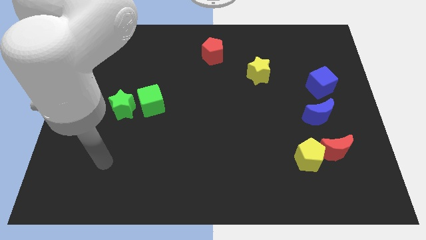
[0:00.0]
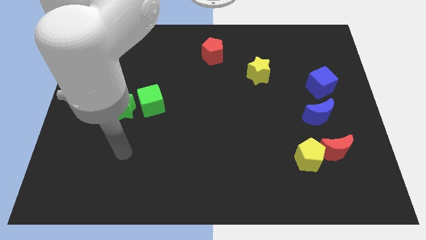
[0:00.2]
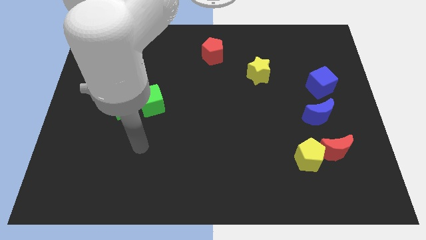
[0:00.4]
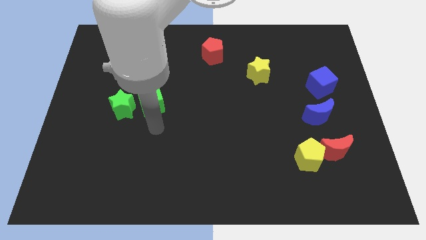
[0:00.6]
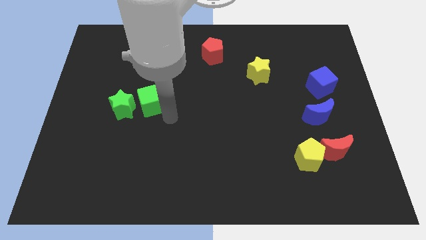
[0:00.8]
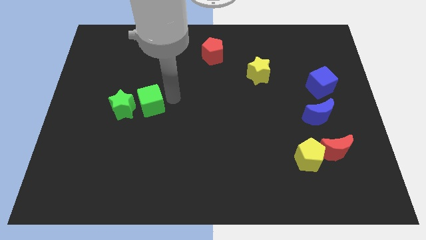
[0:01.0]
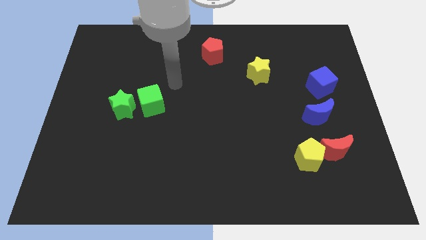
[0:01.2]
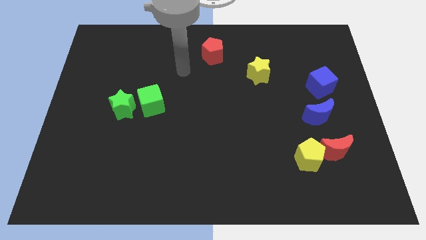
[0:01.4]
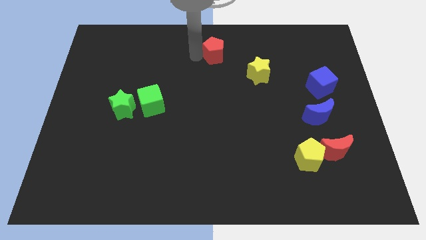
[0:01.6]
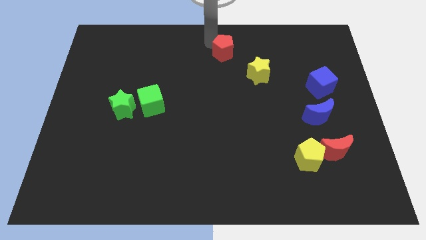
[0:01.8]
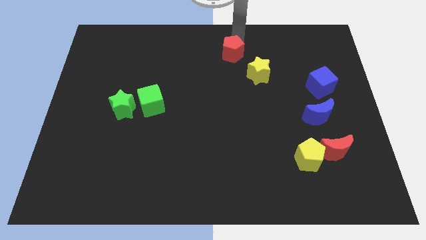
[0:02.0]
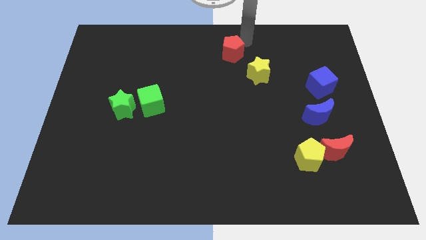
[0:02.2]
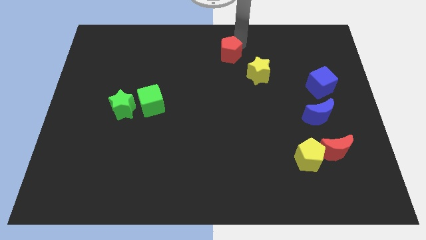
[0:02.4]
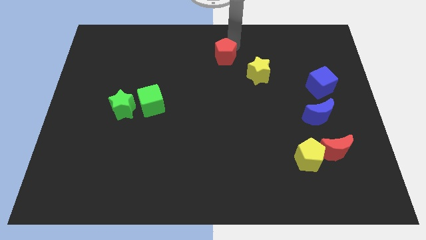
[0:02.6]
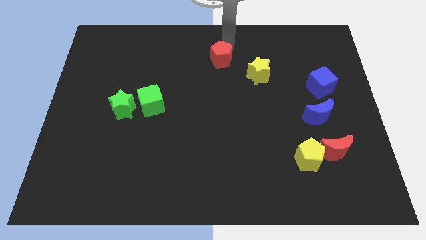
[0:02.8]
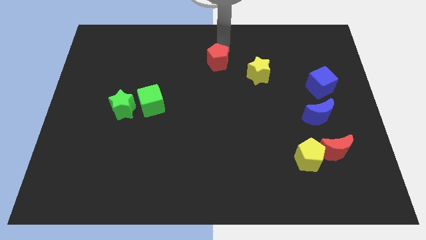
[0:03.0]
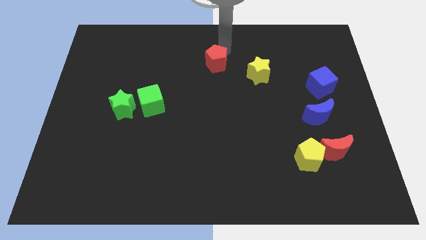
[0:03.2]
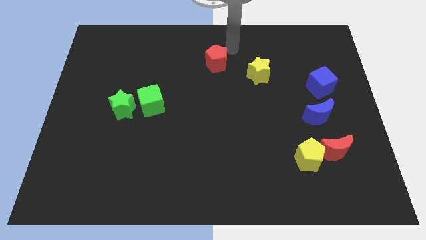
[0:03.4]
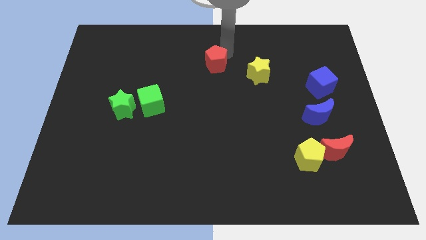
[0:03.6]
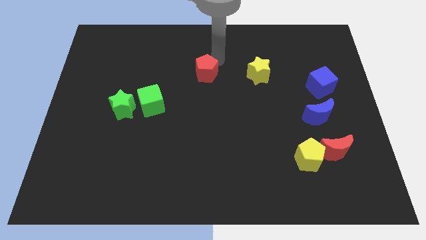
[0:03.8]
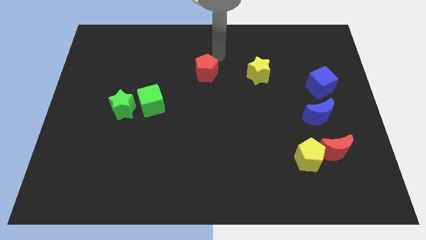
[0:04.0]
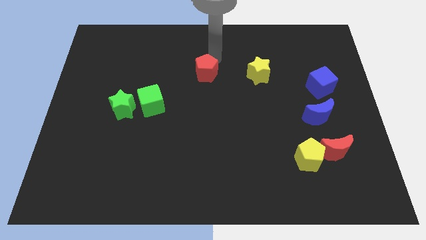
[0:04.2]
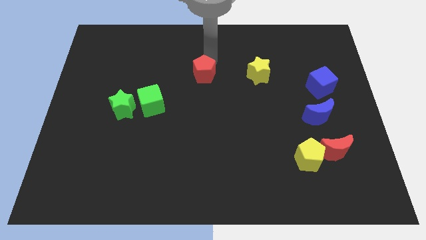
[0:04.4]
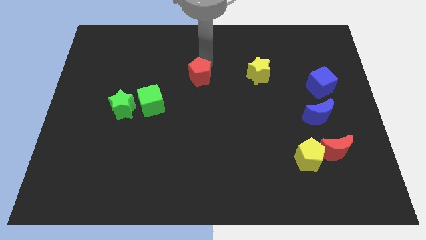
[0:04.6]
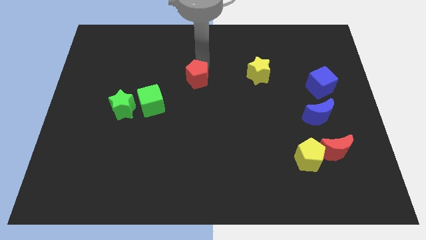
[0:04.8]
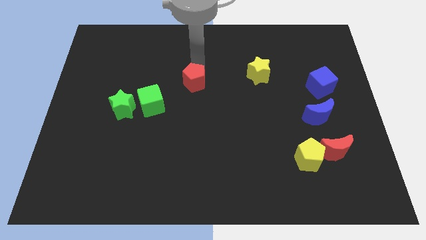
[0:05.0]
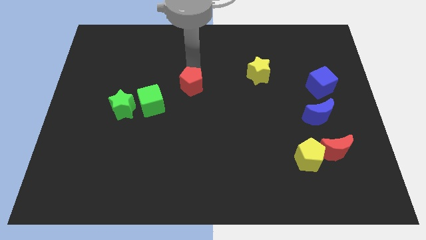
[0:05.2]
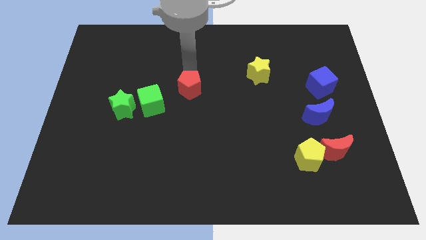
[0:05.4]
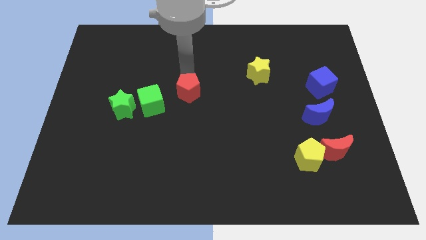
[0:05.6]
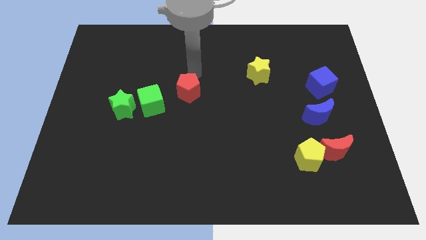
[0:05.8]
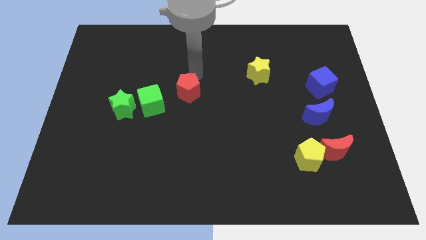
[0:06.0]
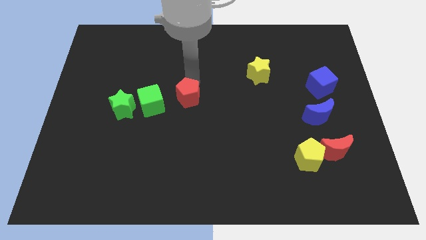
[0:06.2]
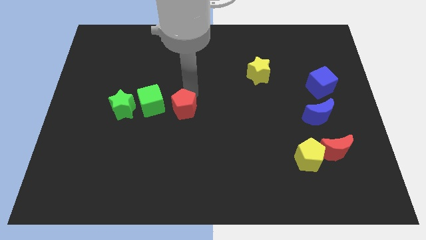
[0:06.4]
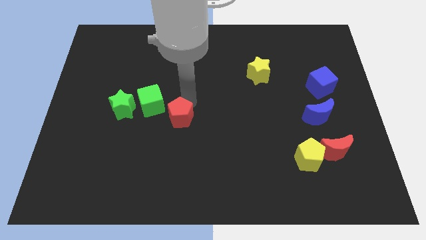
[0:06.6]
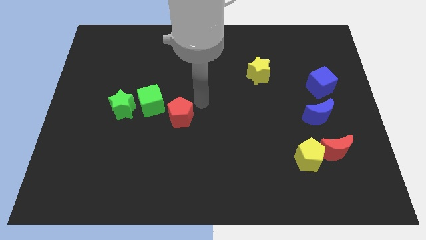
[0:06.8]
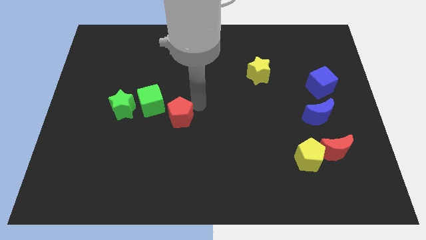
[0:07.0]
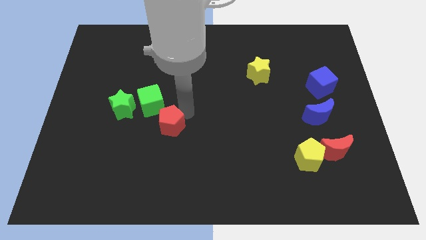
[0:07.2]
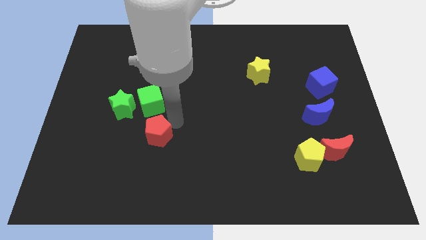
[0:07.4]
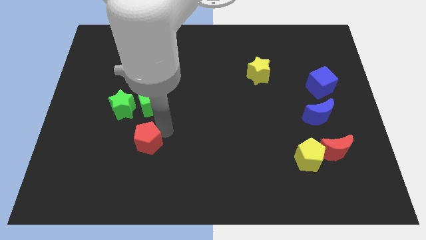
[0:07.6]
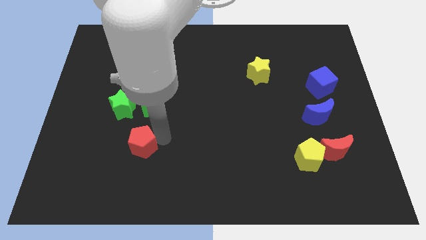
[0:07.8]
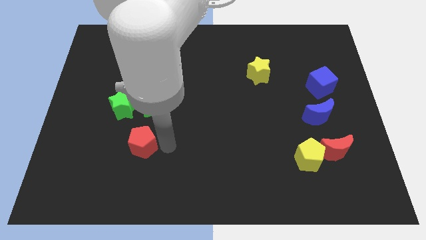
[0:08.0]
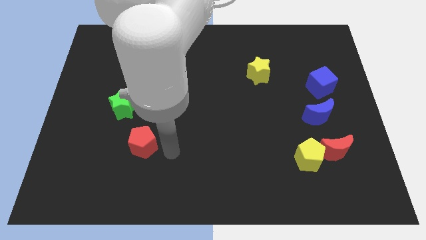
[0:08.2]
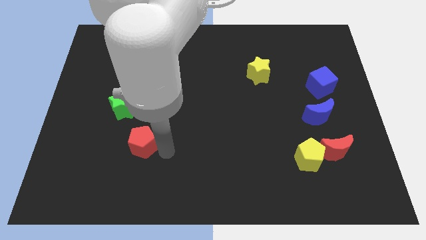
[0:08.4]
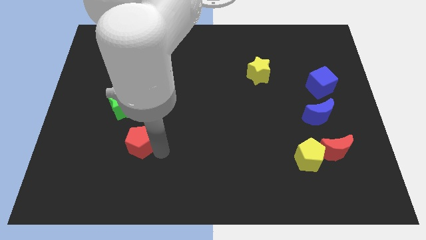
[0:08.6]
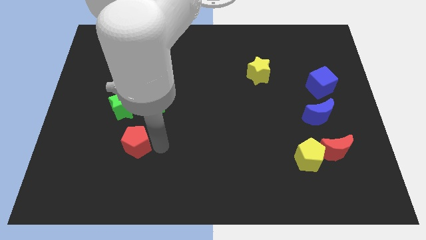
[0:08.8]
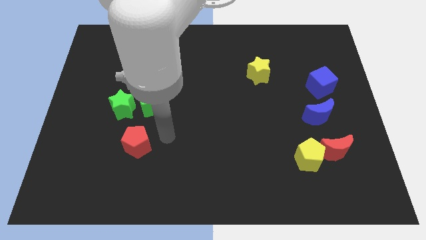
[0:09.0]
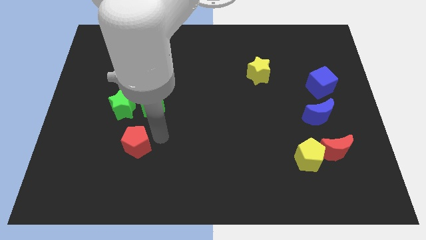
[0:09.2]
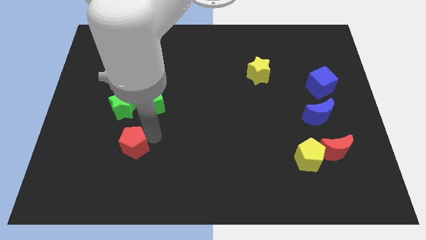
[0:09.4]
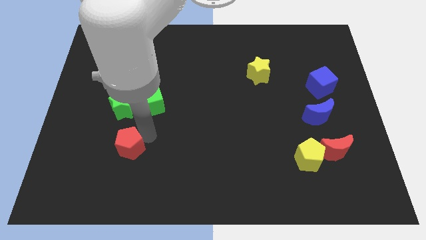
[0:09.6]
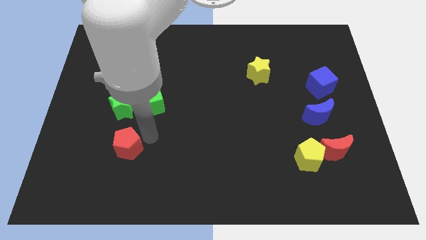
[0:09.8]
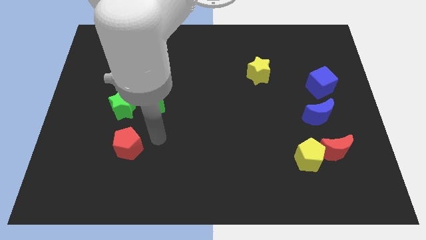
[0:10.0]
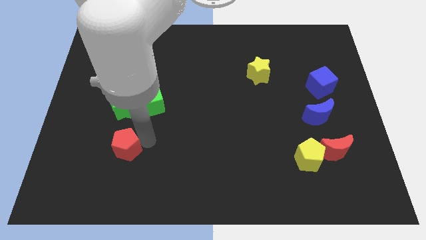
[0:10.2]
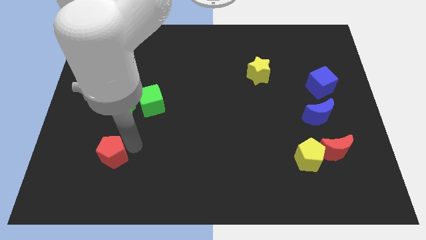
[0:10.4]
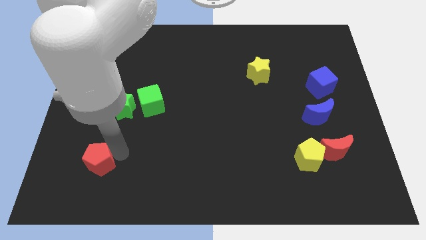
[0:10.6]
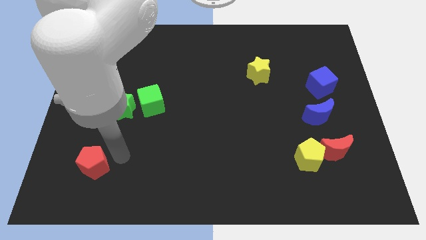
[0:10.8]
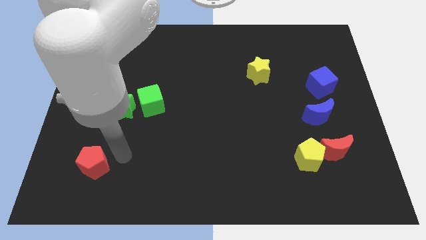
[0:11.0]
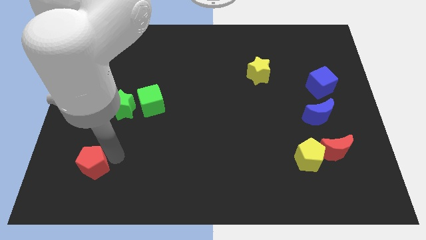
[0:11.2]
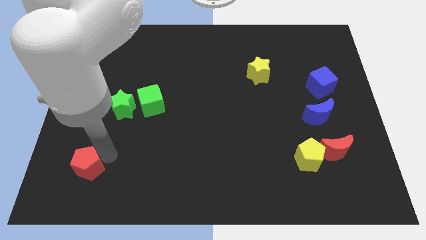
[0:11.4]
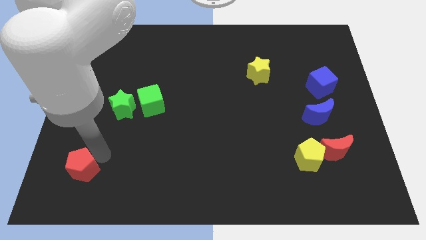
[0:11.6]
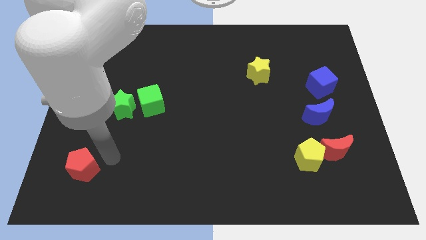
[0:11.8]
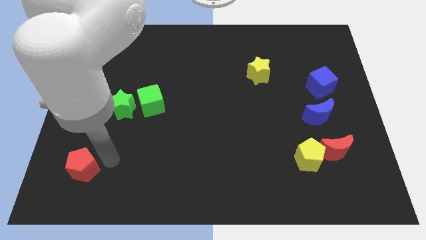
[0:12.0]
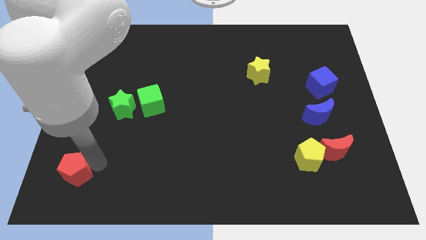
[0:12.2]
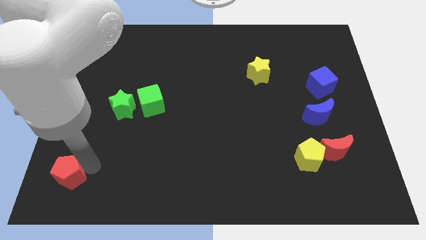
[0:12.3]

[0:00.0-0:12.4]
put the red pentagon to the bottom left

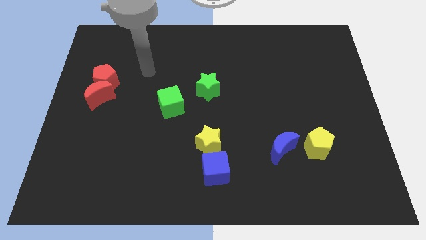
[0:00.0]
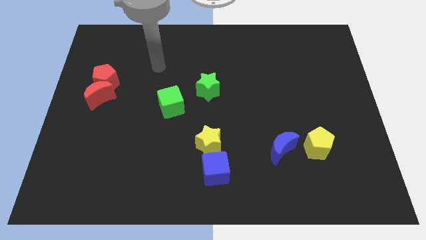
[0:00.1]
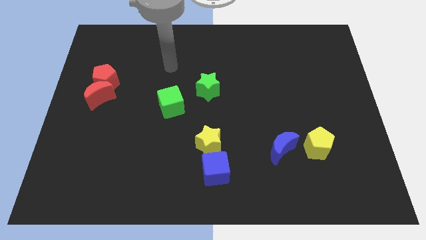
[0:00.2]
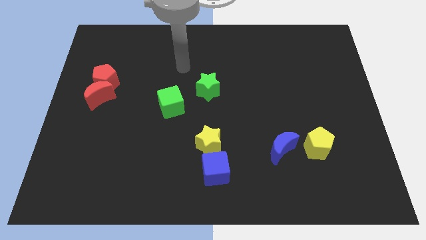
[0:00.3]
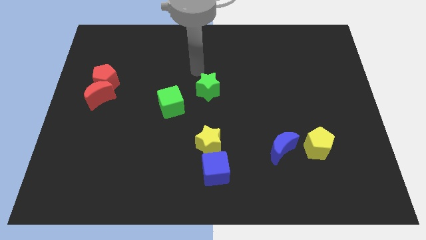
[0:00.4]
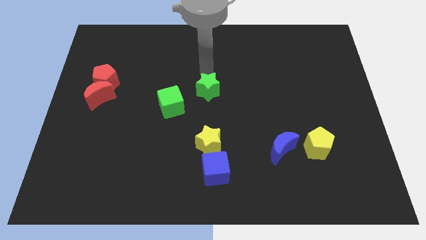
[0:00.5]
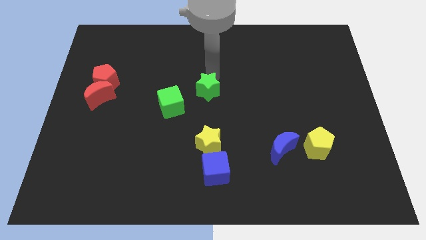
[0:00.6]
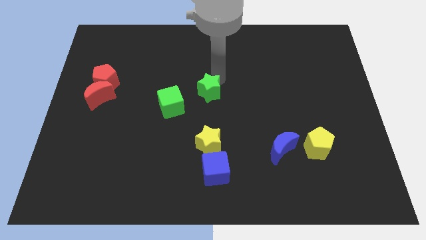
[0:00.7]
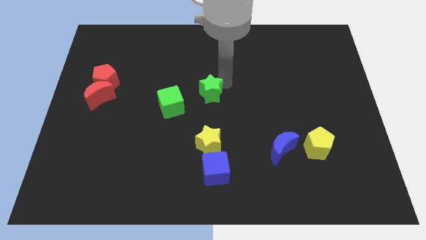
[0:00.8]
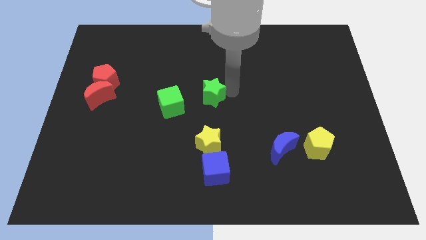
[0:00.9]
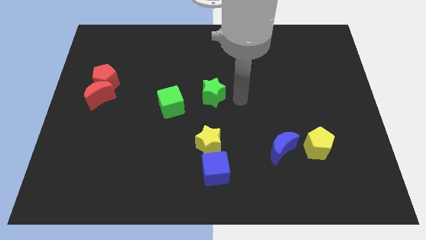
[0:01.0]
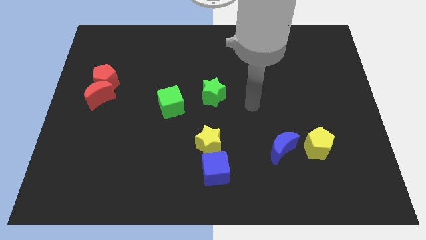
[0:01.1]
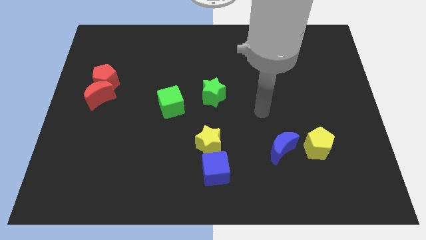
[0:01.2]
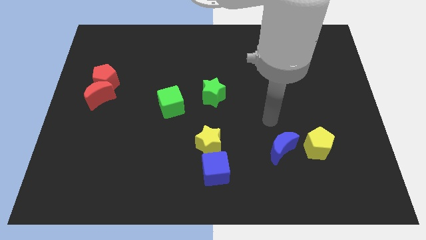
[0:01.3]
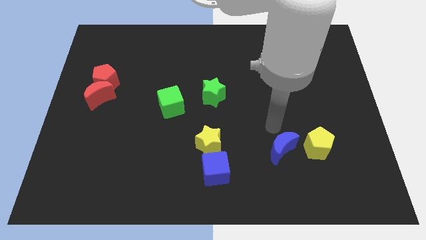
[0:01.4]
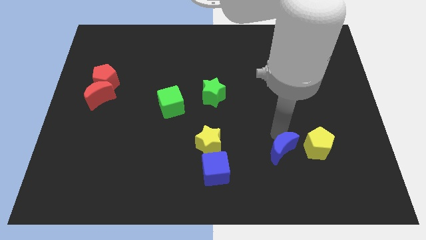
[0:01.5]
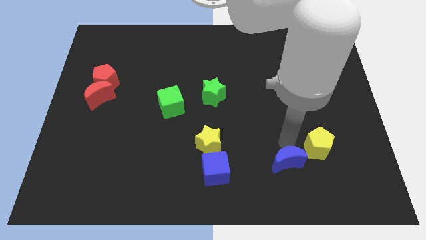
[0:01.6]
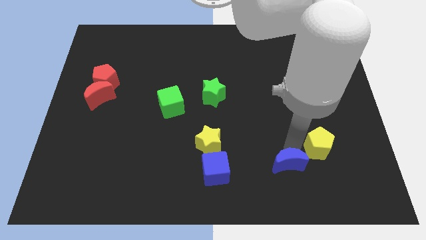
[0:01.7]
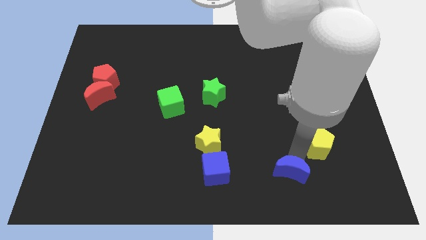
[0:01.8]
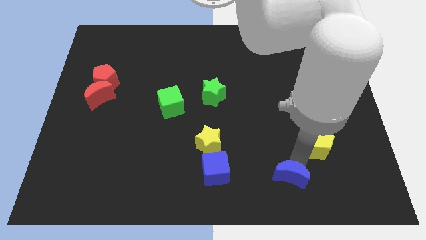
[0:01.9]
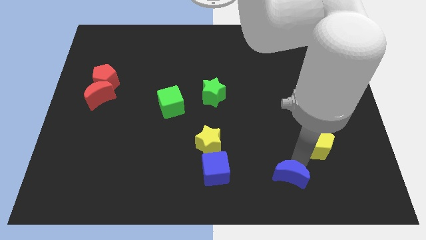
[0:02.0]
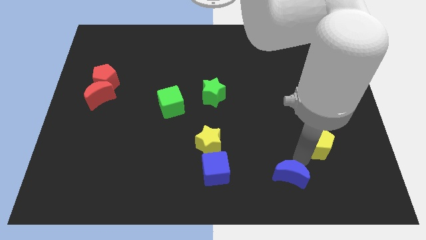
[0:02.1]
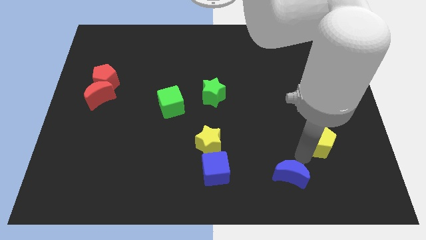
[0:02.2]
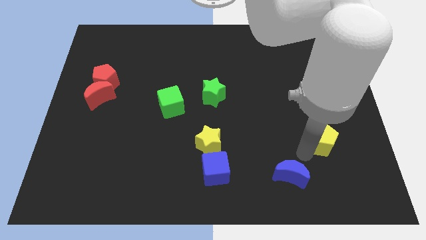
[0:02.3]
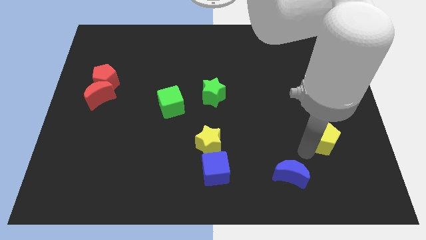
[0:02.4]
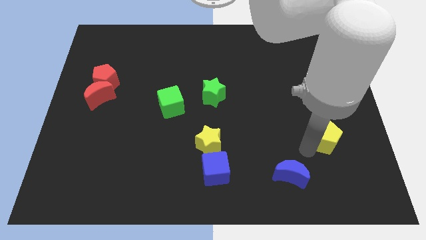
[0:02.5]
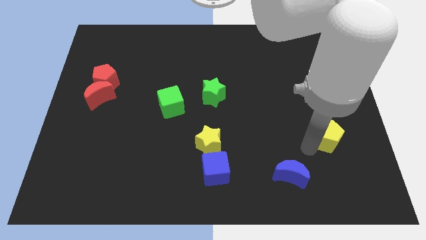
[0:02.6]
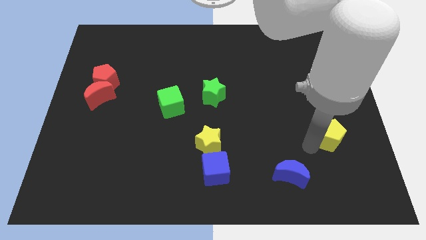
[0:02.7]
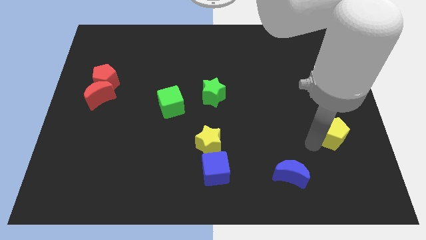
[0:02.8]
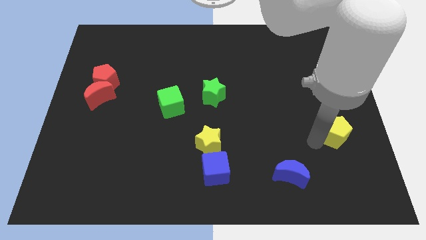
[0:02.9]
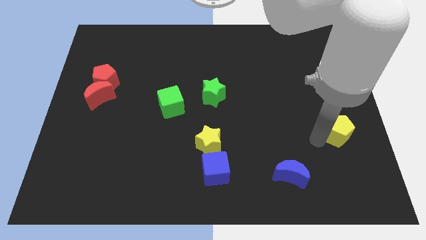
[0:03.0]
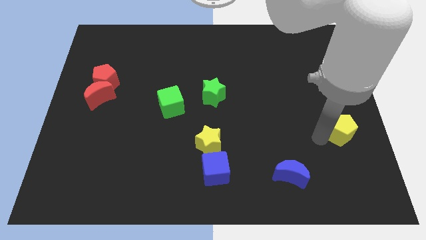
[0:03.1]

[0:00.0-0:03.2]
slide the yellow pentagon to the right side
